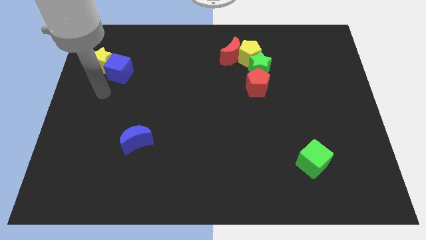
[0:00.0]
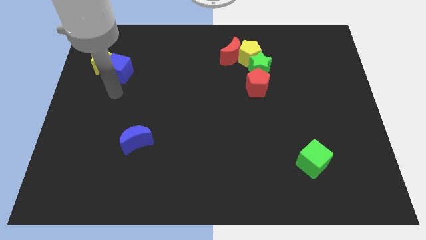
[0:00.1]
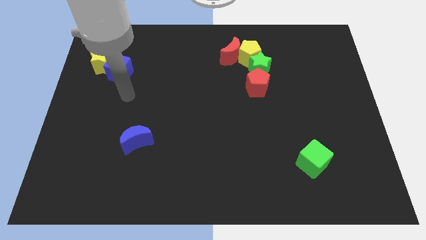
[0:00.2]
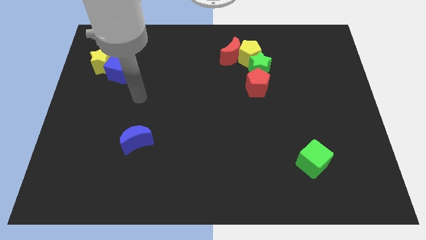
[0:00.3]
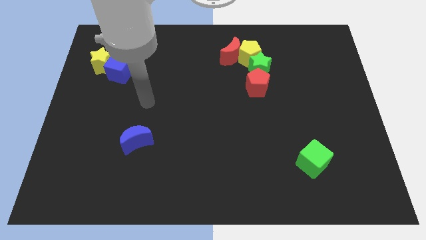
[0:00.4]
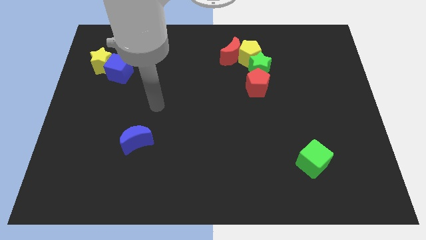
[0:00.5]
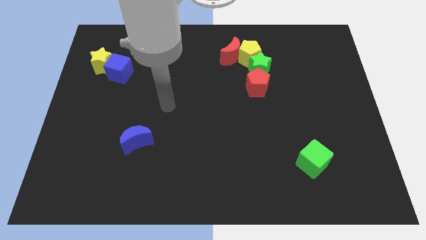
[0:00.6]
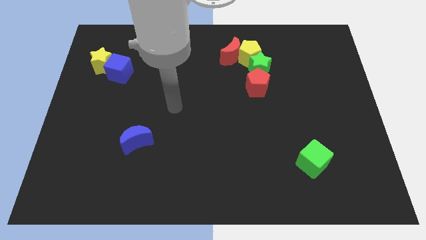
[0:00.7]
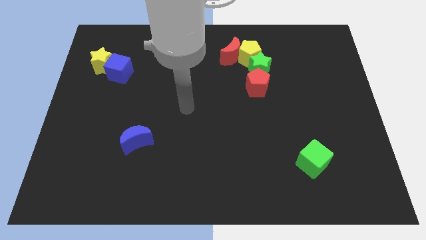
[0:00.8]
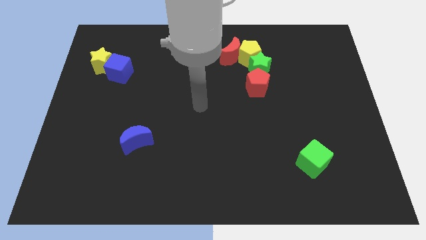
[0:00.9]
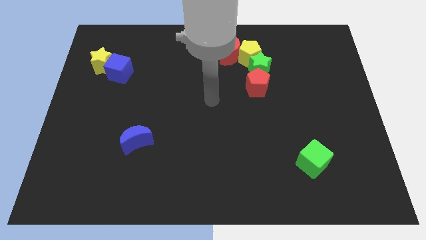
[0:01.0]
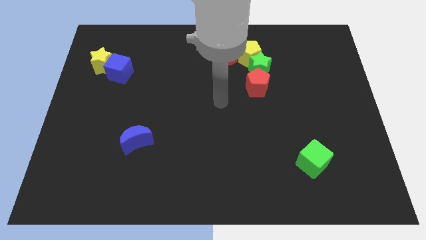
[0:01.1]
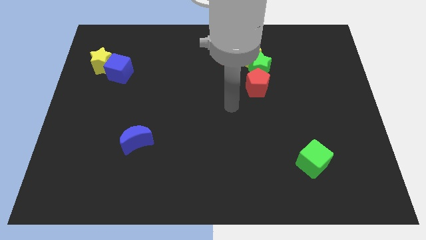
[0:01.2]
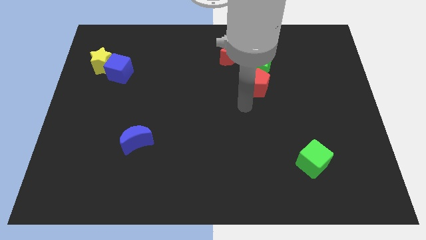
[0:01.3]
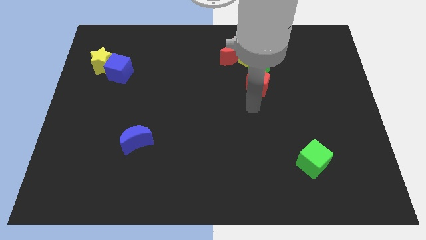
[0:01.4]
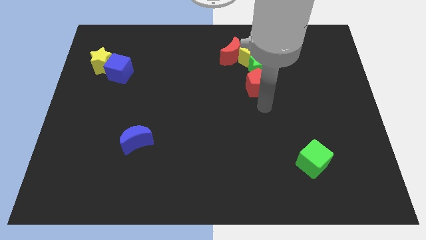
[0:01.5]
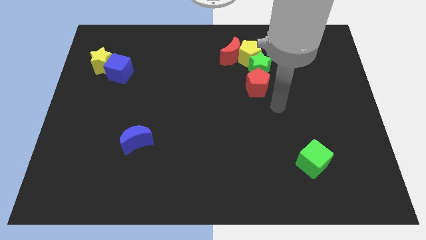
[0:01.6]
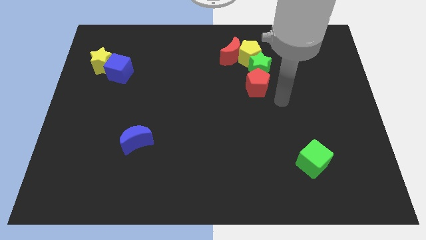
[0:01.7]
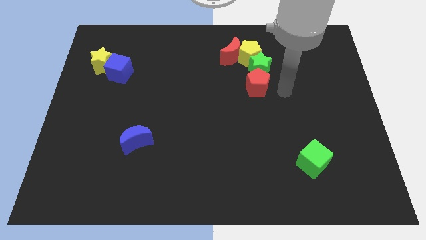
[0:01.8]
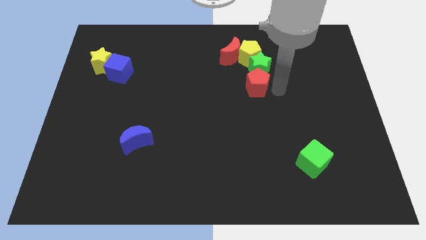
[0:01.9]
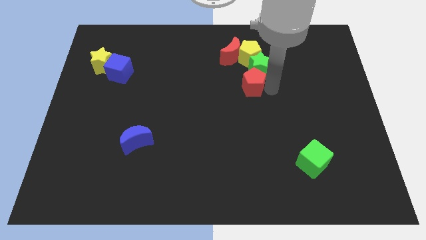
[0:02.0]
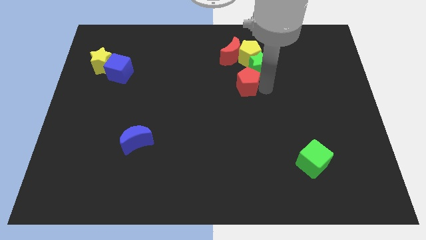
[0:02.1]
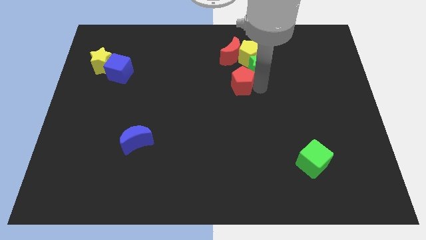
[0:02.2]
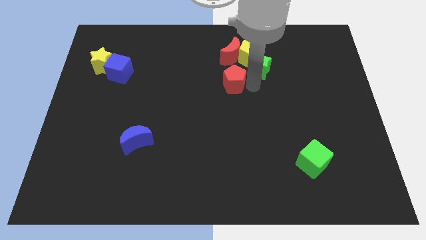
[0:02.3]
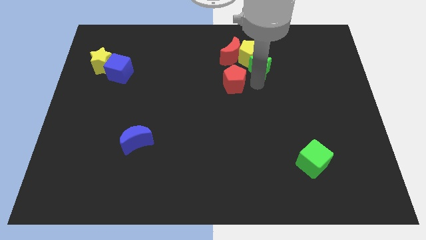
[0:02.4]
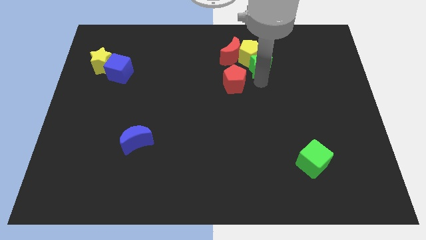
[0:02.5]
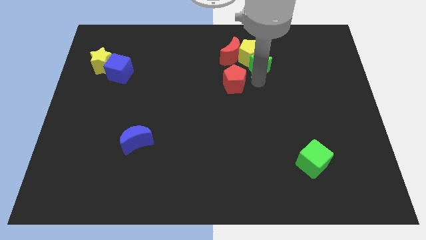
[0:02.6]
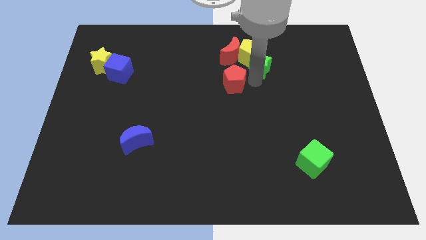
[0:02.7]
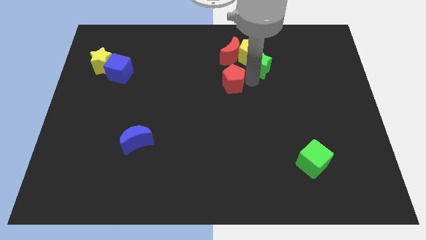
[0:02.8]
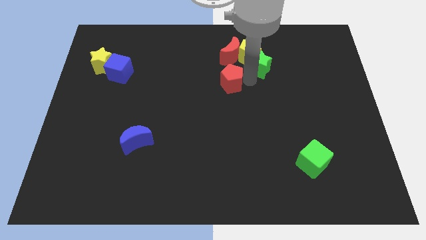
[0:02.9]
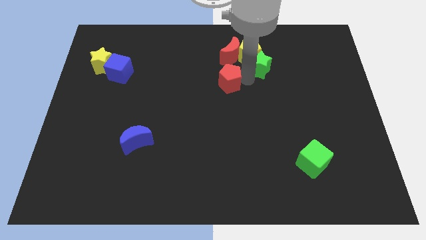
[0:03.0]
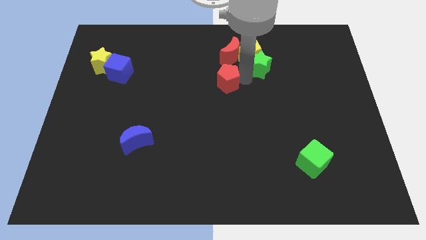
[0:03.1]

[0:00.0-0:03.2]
move the red pentagon a little bit to the left

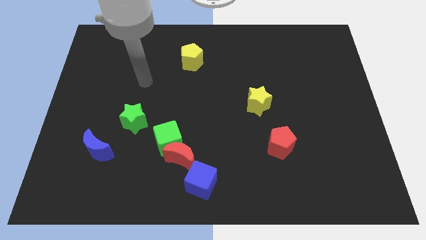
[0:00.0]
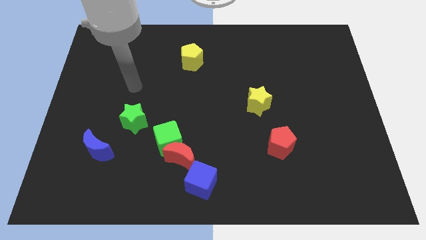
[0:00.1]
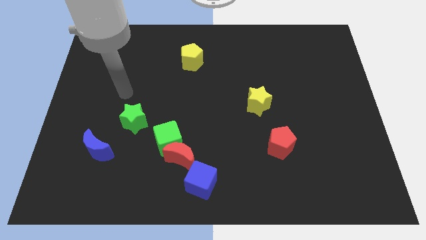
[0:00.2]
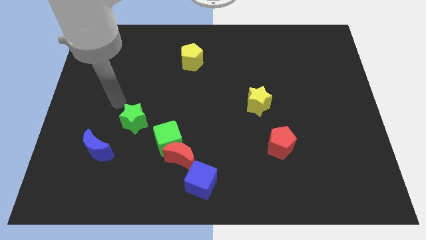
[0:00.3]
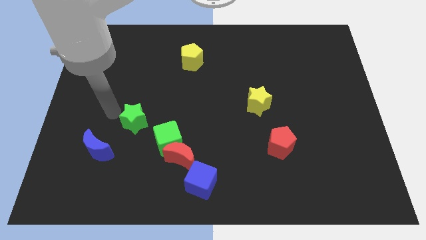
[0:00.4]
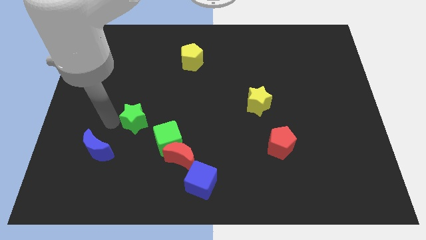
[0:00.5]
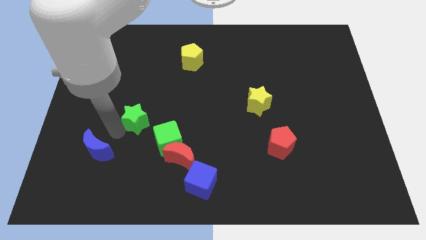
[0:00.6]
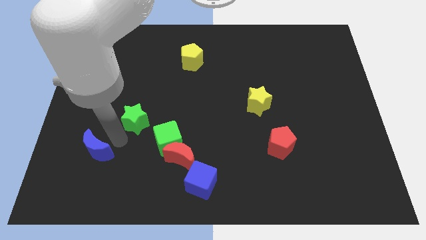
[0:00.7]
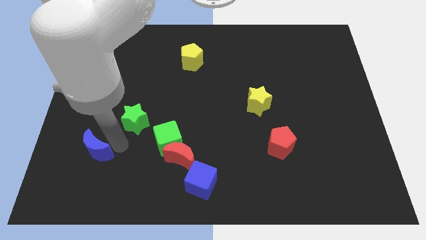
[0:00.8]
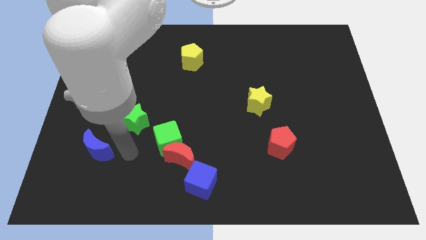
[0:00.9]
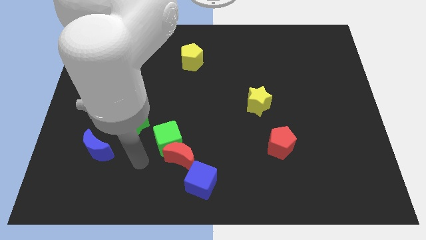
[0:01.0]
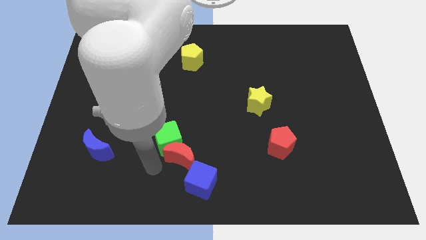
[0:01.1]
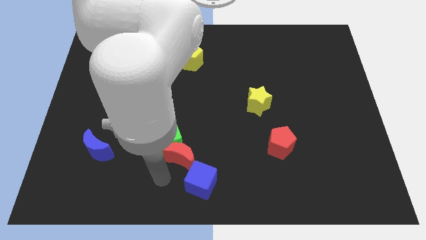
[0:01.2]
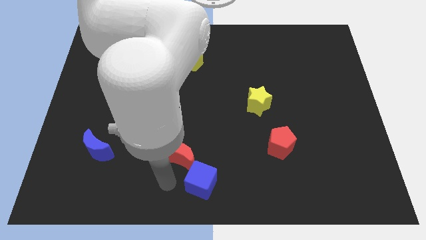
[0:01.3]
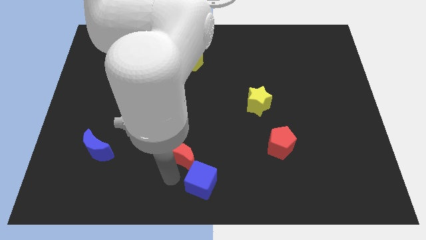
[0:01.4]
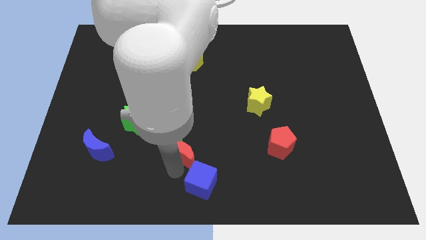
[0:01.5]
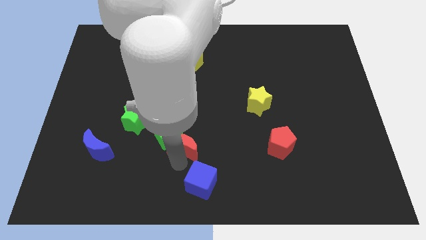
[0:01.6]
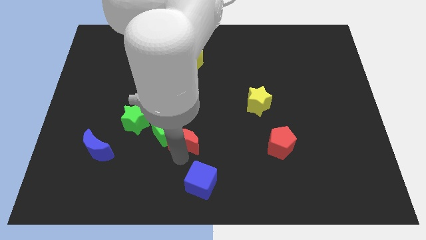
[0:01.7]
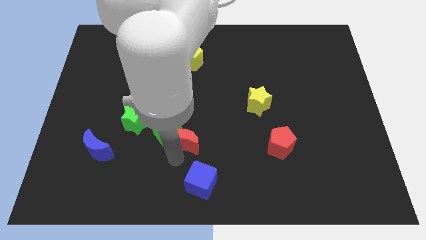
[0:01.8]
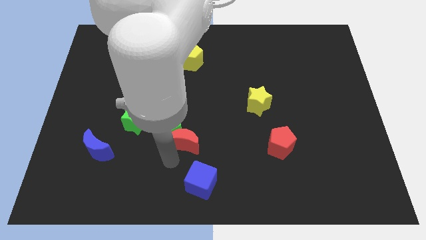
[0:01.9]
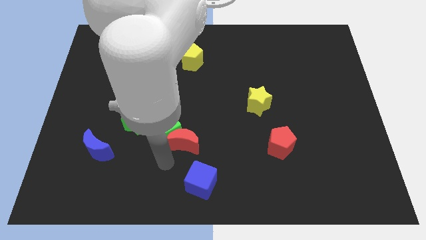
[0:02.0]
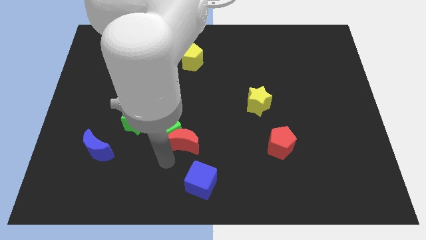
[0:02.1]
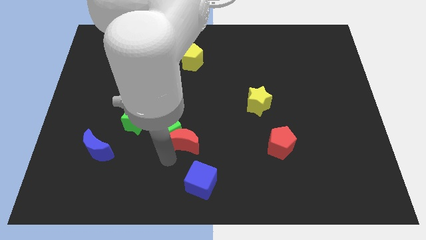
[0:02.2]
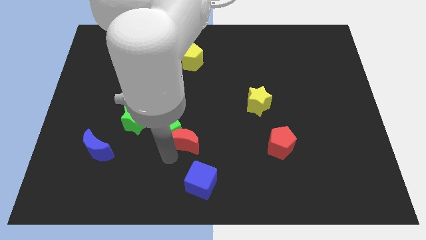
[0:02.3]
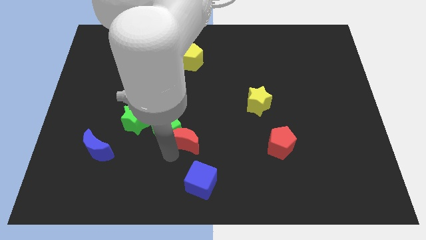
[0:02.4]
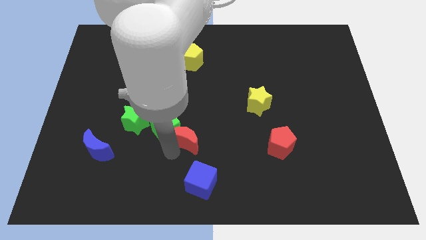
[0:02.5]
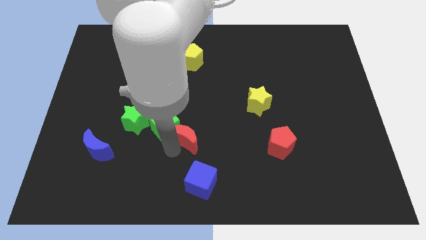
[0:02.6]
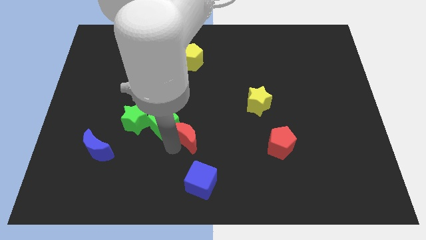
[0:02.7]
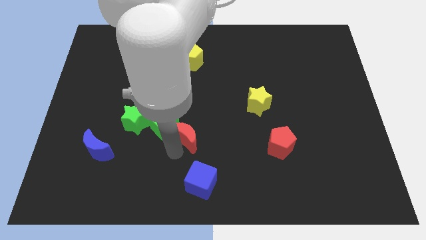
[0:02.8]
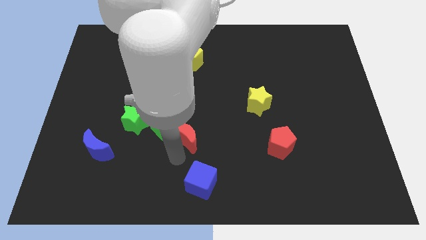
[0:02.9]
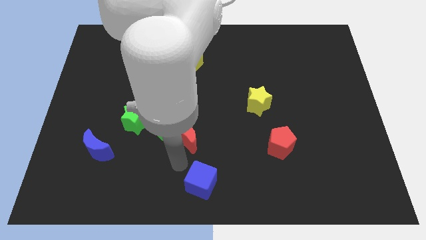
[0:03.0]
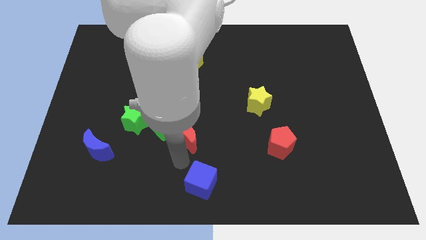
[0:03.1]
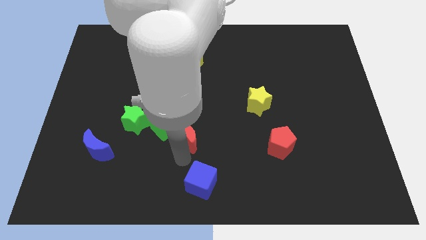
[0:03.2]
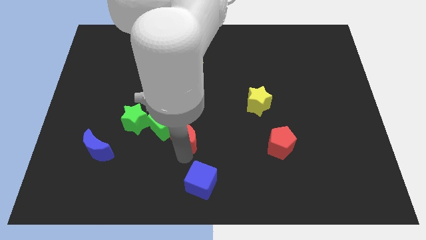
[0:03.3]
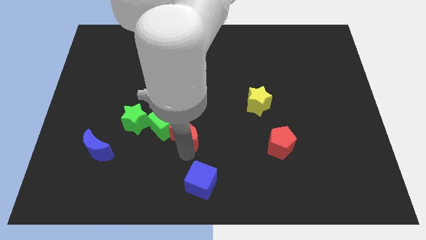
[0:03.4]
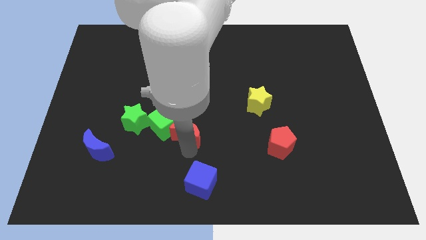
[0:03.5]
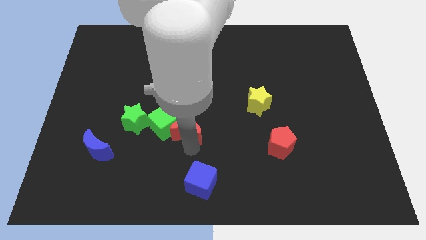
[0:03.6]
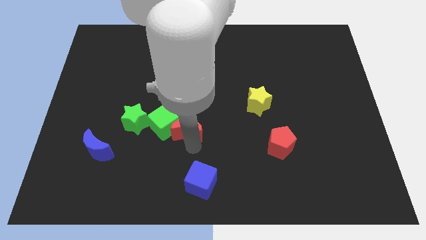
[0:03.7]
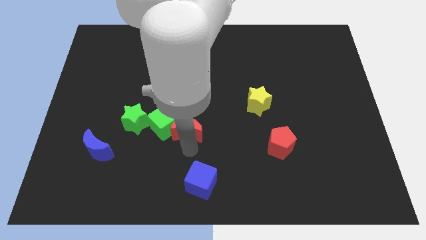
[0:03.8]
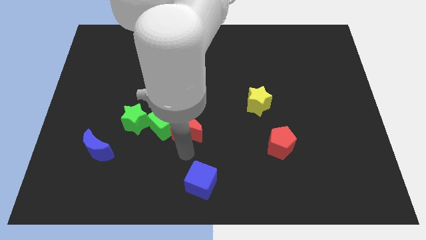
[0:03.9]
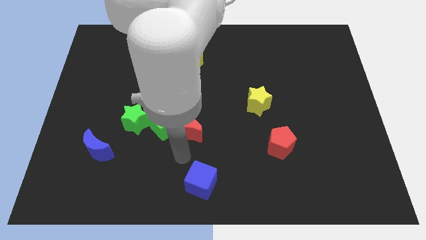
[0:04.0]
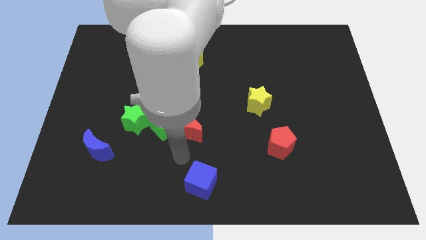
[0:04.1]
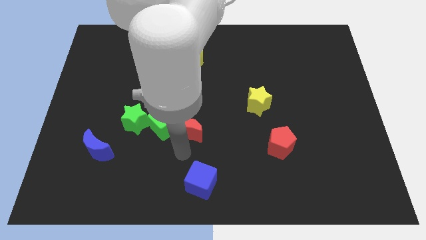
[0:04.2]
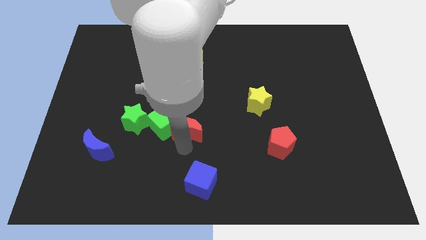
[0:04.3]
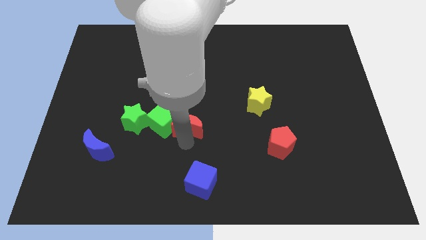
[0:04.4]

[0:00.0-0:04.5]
push the red moon up a bit

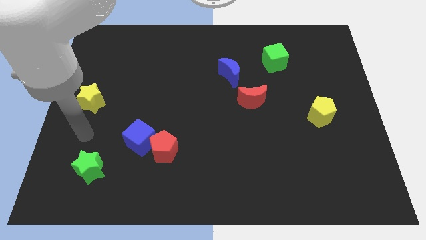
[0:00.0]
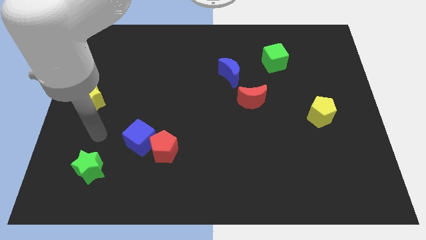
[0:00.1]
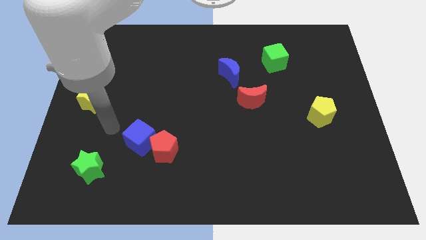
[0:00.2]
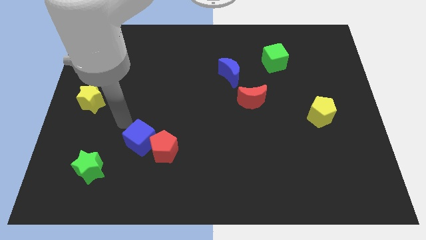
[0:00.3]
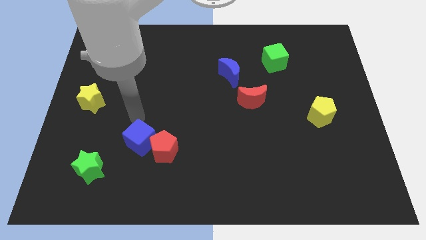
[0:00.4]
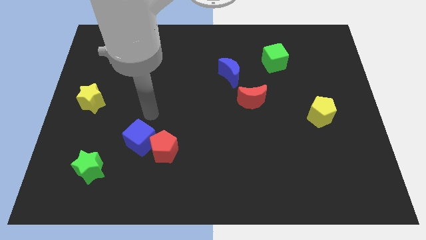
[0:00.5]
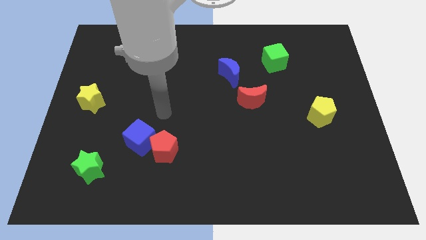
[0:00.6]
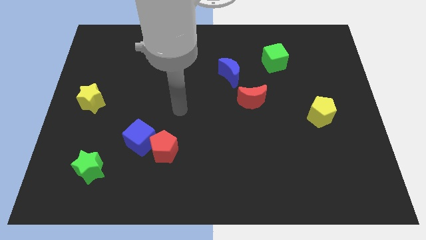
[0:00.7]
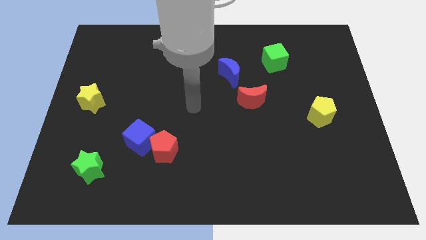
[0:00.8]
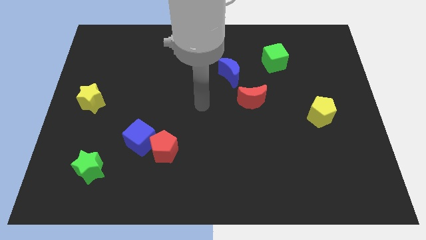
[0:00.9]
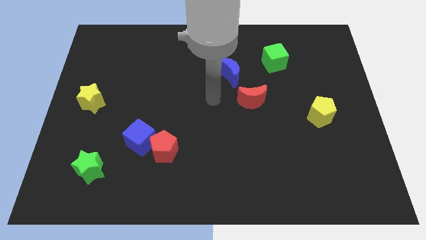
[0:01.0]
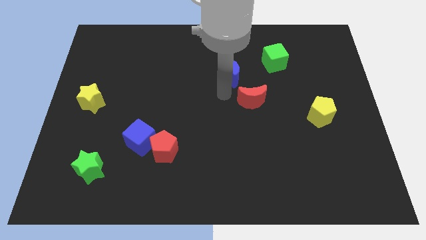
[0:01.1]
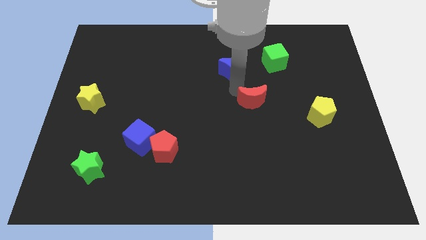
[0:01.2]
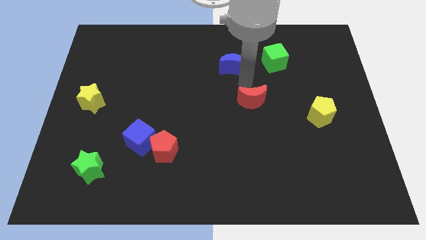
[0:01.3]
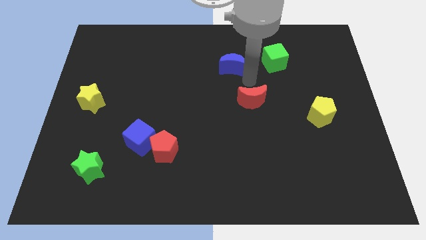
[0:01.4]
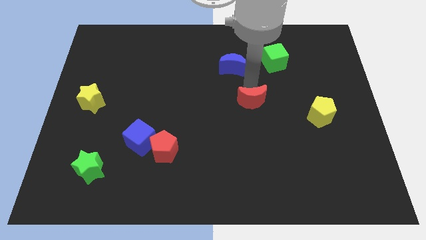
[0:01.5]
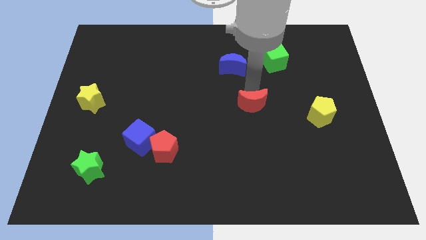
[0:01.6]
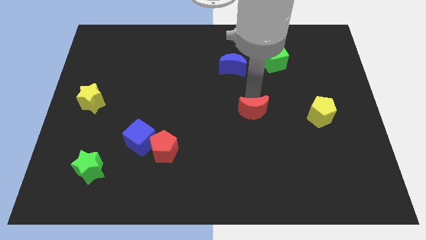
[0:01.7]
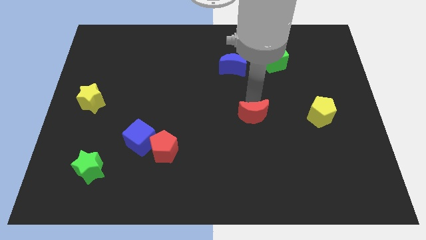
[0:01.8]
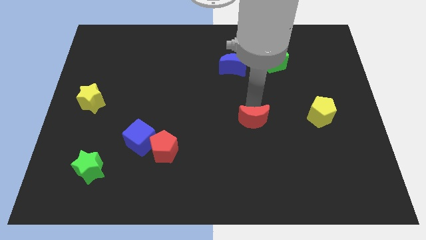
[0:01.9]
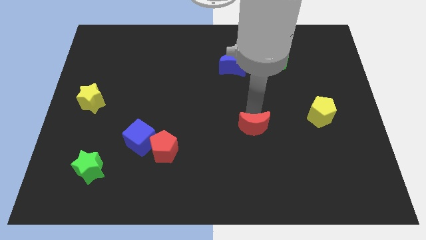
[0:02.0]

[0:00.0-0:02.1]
slightly move the red moon down
